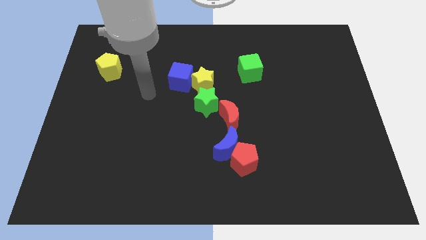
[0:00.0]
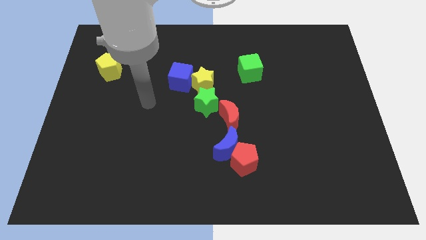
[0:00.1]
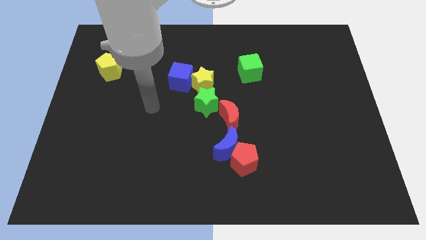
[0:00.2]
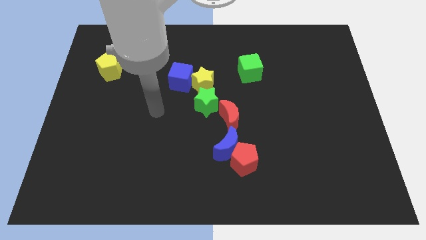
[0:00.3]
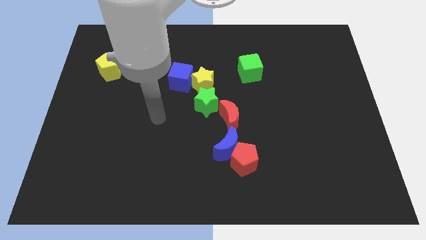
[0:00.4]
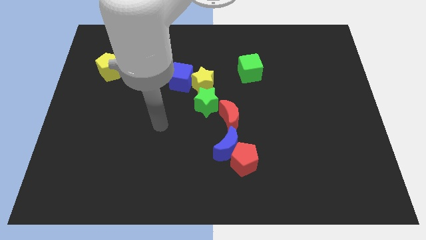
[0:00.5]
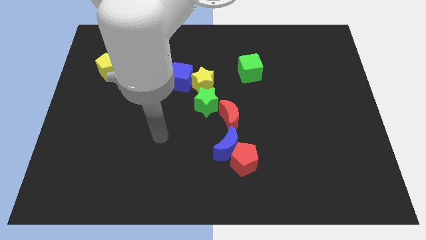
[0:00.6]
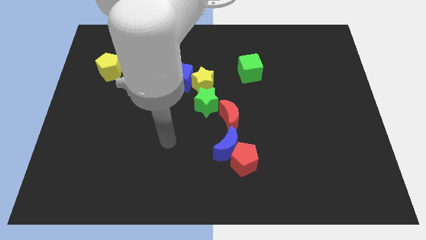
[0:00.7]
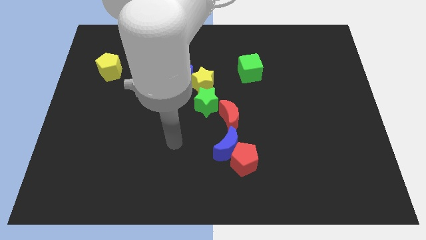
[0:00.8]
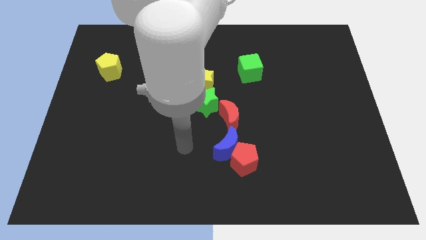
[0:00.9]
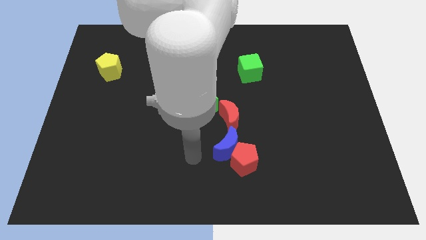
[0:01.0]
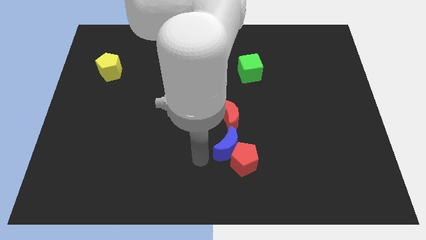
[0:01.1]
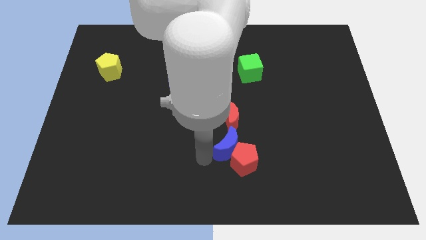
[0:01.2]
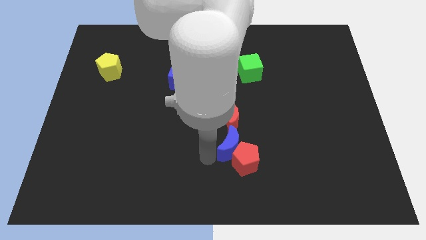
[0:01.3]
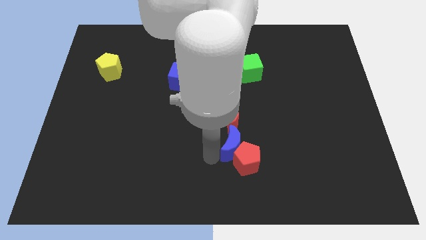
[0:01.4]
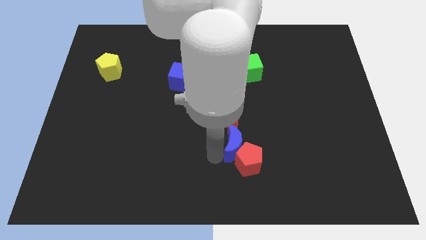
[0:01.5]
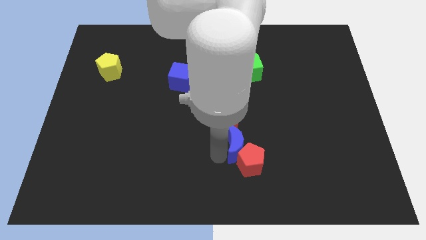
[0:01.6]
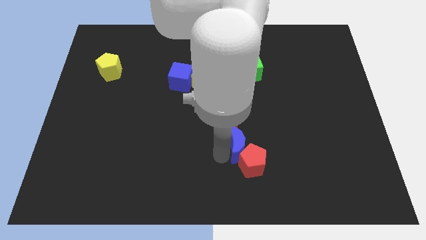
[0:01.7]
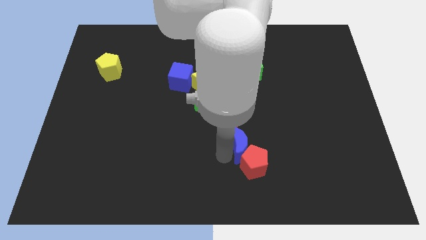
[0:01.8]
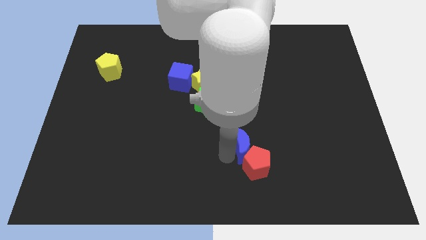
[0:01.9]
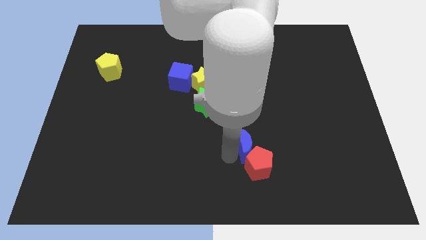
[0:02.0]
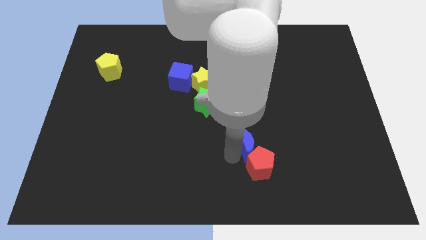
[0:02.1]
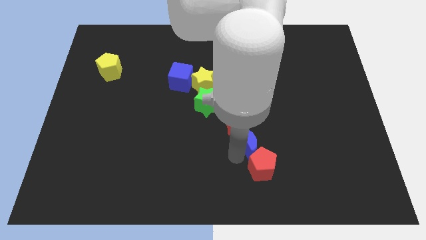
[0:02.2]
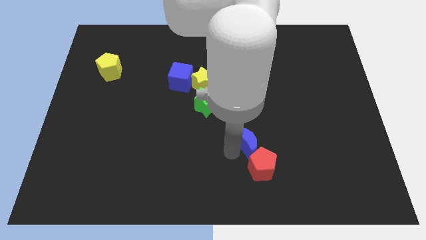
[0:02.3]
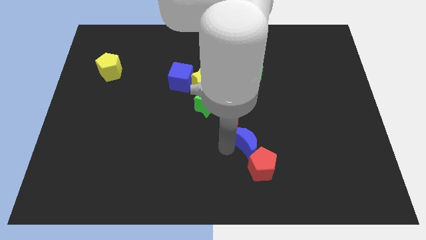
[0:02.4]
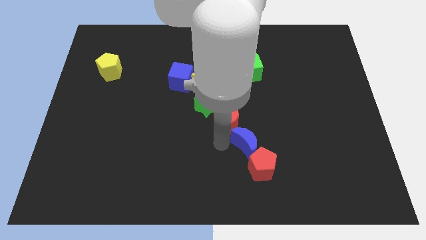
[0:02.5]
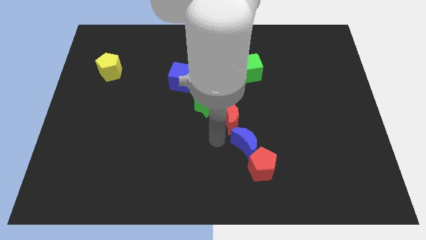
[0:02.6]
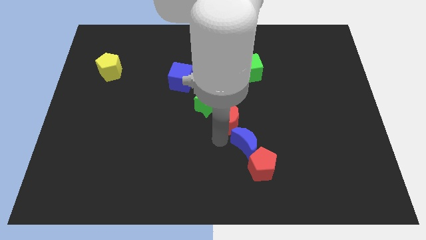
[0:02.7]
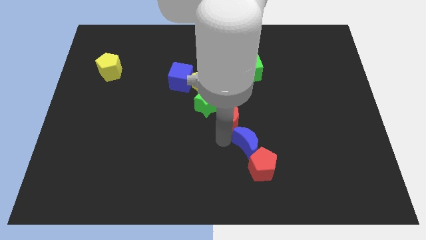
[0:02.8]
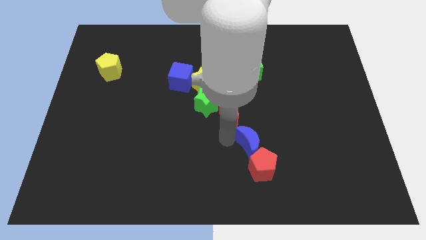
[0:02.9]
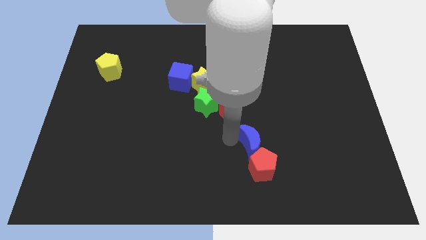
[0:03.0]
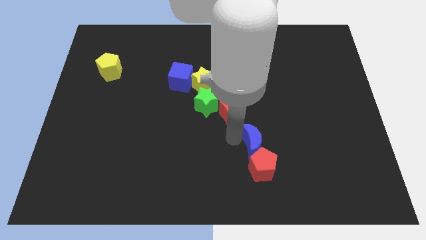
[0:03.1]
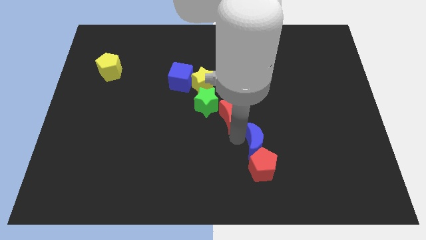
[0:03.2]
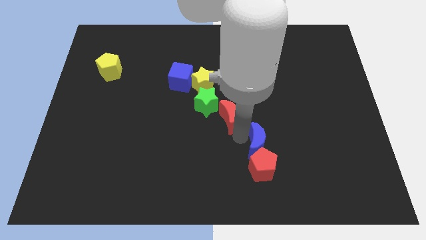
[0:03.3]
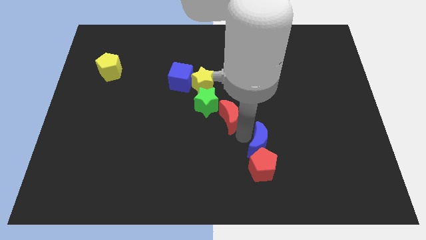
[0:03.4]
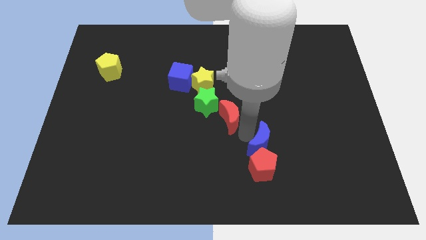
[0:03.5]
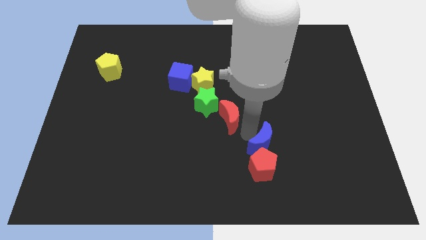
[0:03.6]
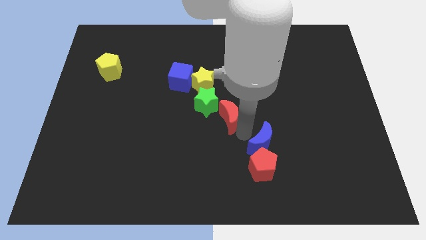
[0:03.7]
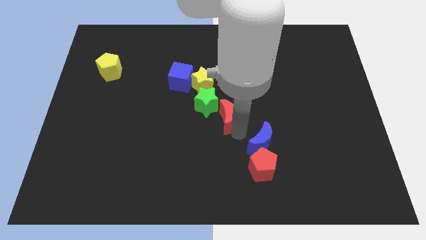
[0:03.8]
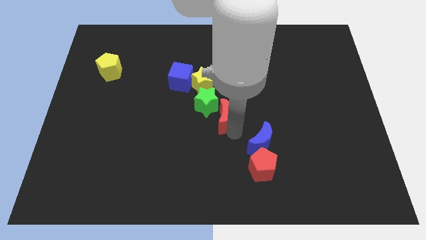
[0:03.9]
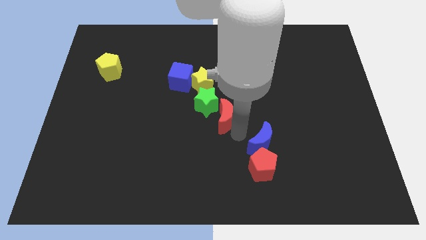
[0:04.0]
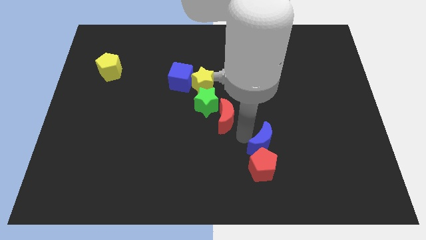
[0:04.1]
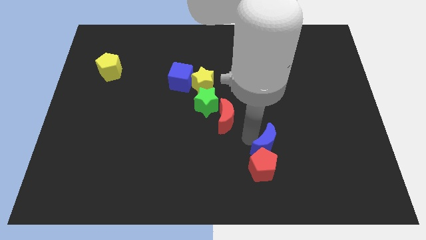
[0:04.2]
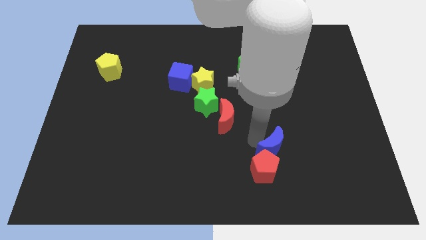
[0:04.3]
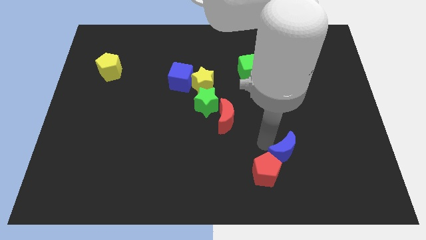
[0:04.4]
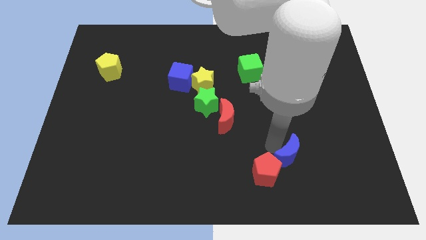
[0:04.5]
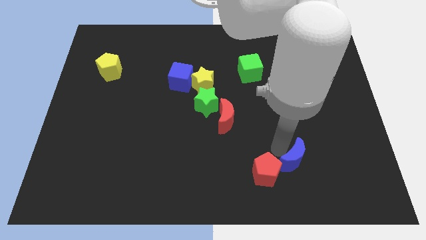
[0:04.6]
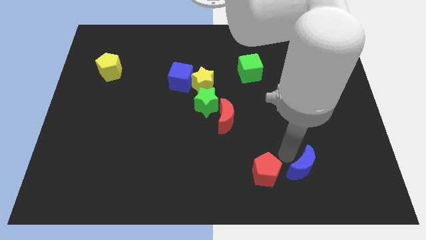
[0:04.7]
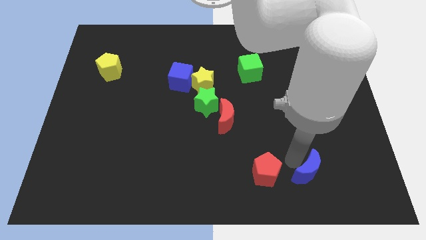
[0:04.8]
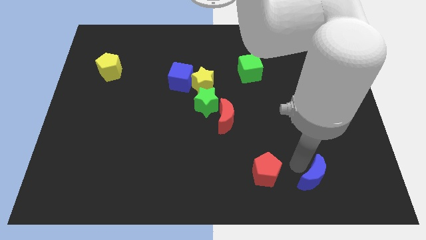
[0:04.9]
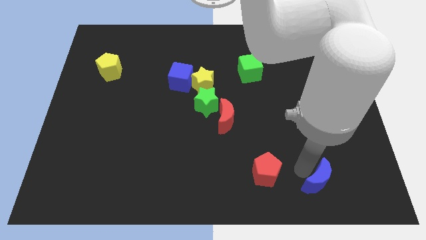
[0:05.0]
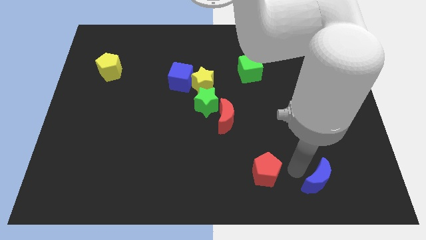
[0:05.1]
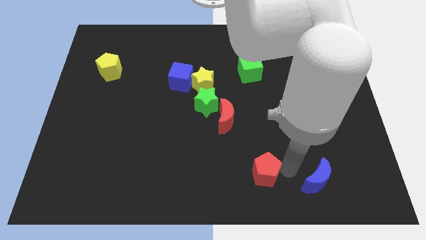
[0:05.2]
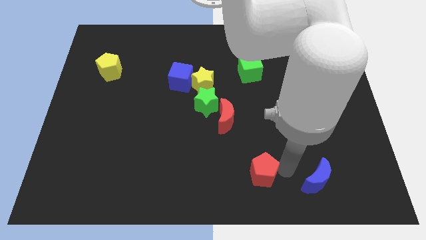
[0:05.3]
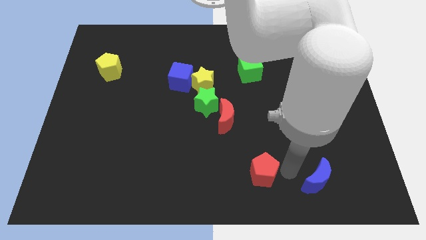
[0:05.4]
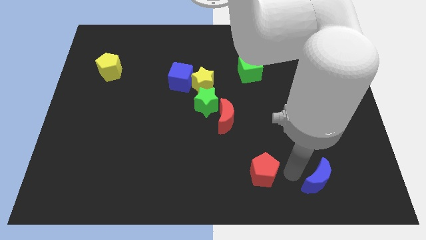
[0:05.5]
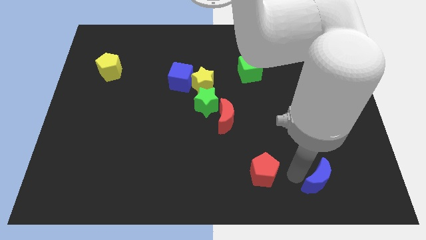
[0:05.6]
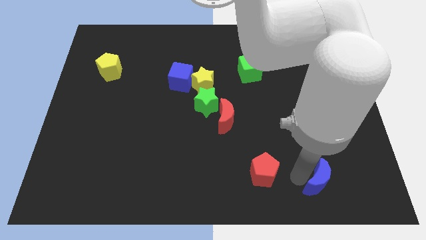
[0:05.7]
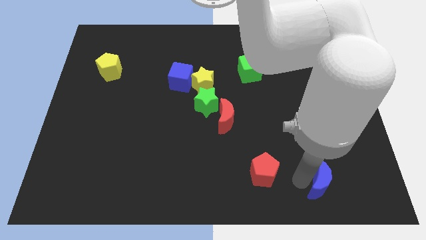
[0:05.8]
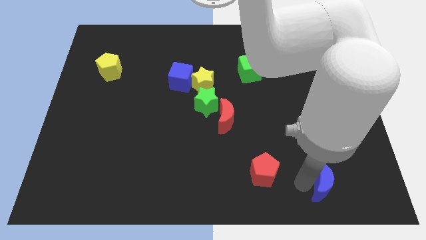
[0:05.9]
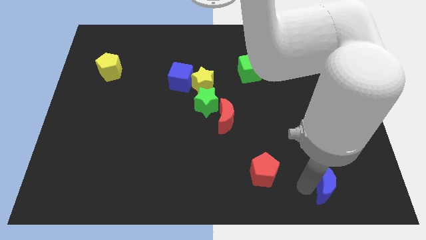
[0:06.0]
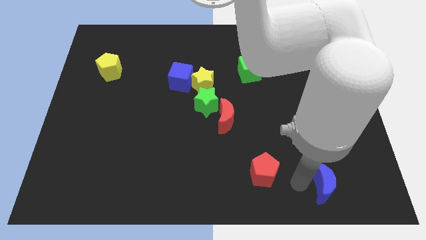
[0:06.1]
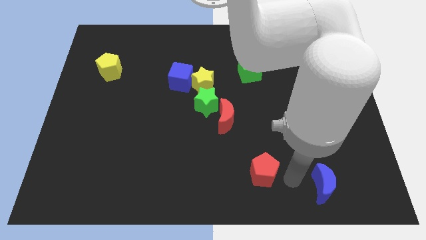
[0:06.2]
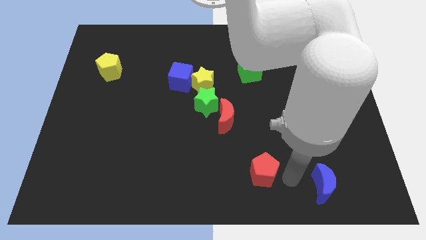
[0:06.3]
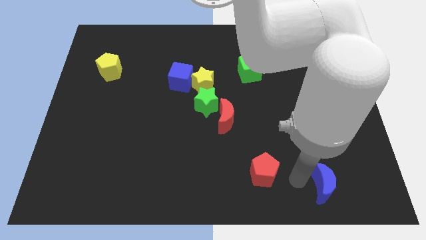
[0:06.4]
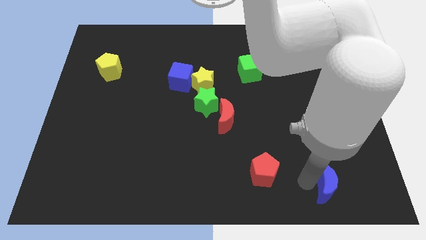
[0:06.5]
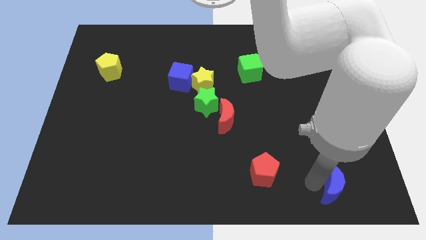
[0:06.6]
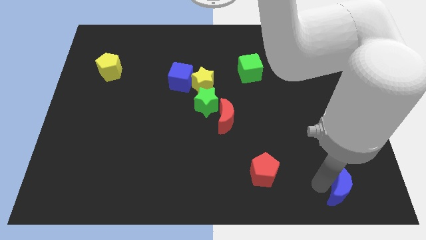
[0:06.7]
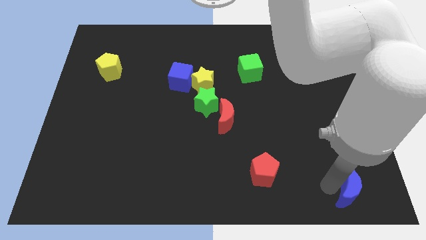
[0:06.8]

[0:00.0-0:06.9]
put the blue moon to the bottom right
